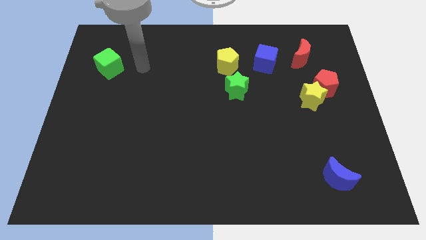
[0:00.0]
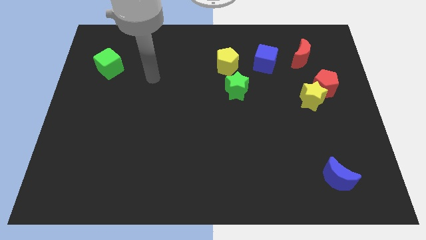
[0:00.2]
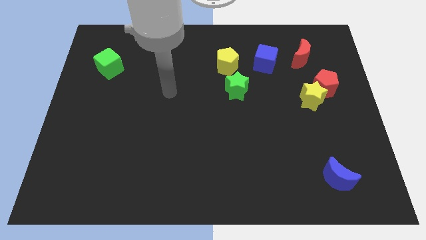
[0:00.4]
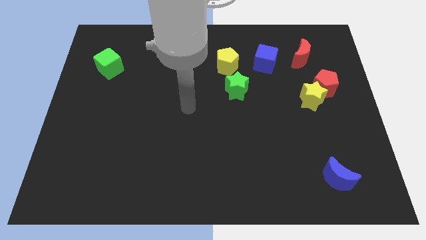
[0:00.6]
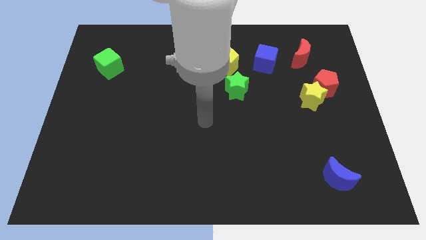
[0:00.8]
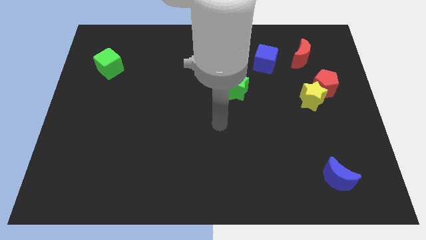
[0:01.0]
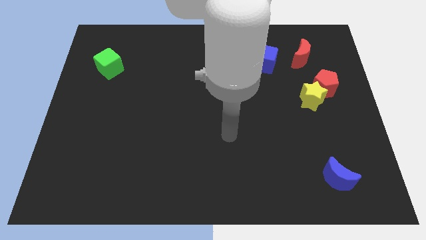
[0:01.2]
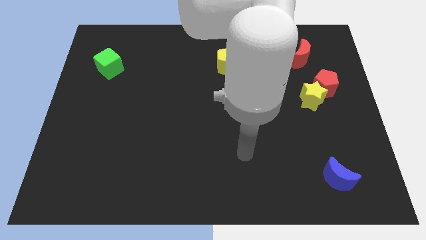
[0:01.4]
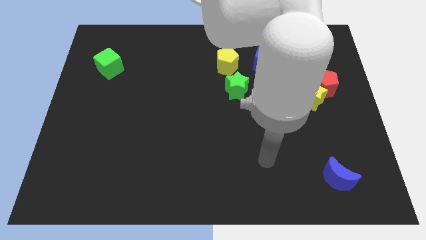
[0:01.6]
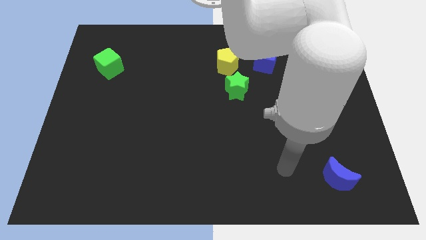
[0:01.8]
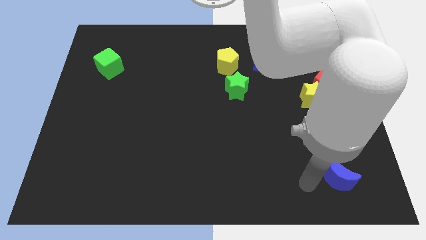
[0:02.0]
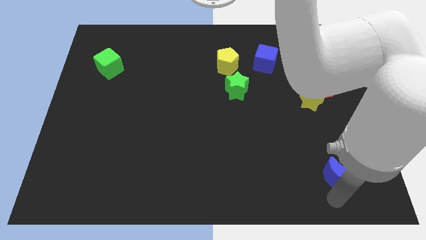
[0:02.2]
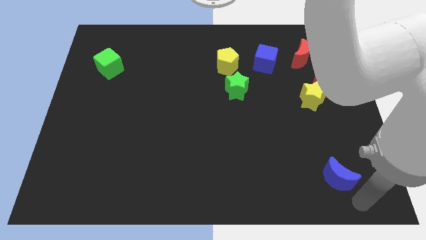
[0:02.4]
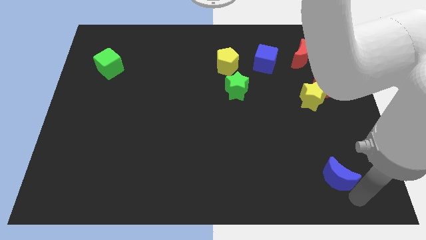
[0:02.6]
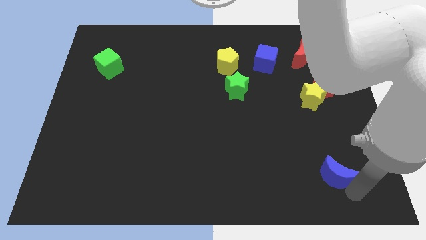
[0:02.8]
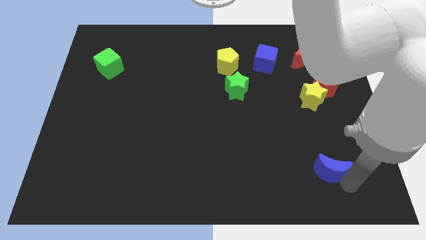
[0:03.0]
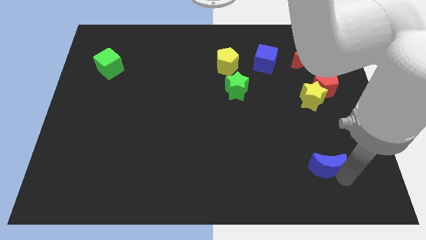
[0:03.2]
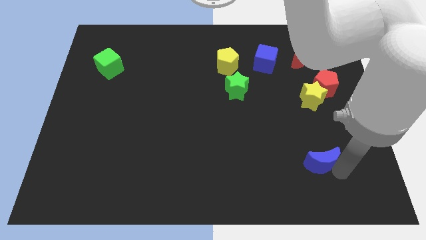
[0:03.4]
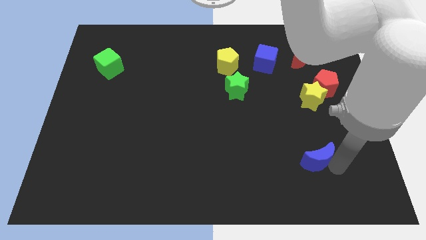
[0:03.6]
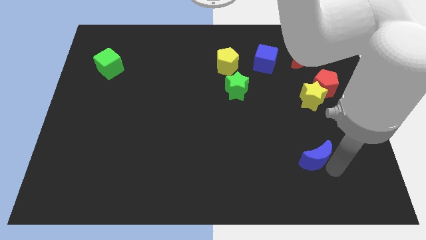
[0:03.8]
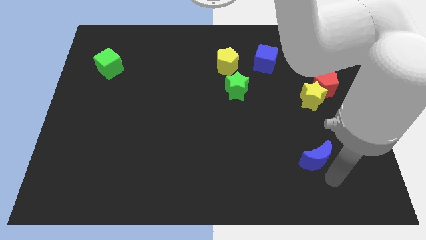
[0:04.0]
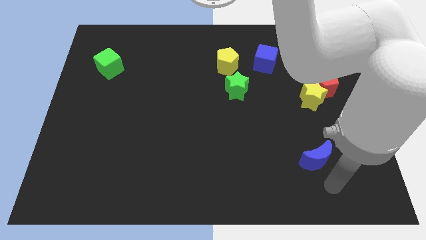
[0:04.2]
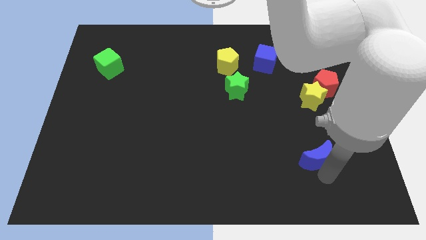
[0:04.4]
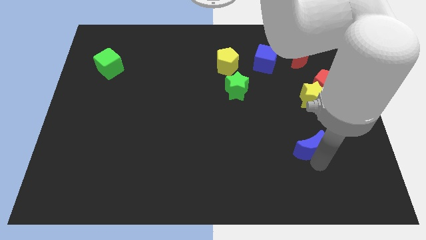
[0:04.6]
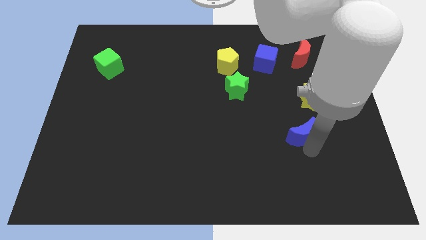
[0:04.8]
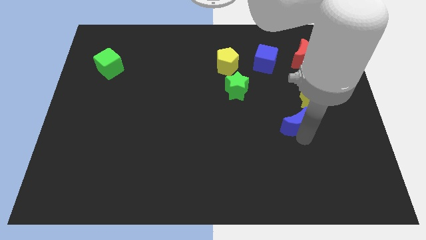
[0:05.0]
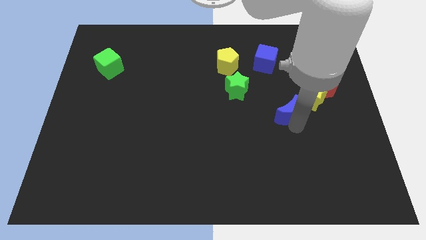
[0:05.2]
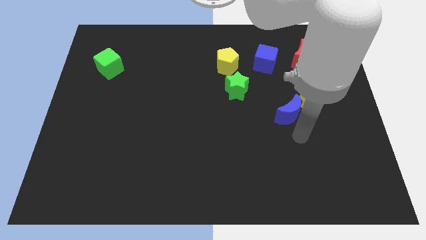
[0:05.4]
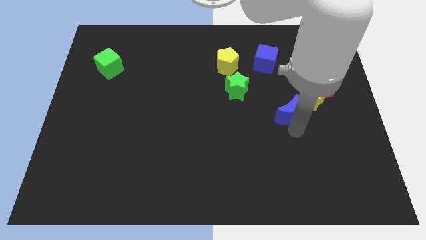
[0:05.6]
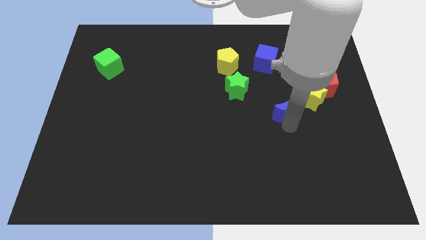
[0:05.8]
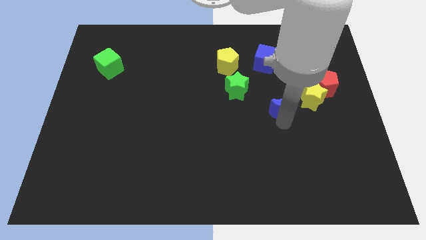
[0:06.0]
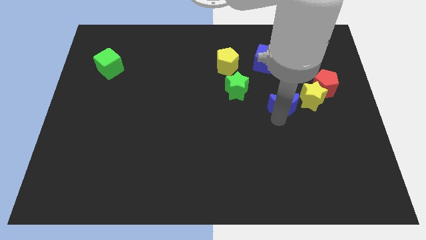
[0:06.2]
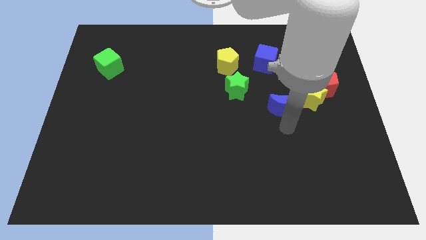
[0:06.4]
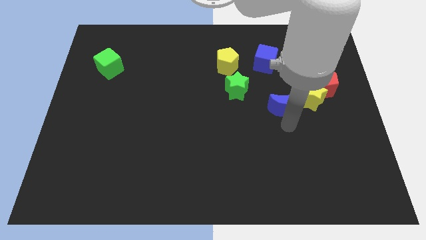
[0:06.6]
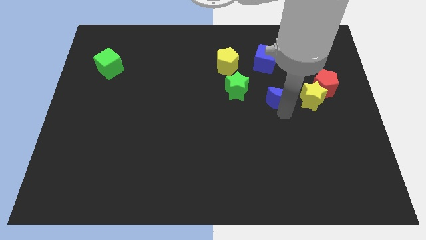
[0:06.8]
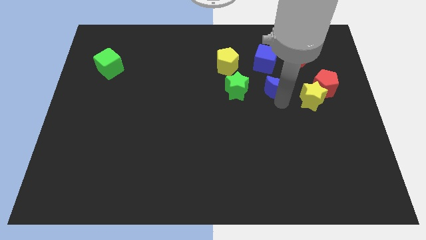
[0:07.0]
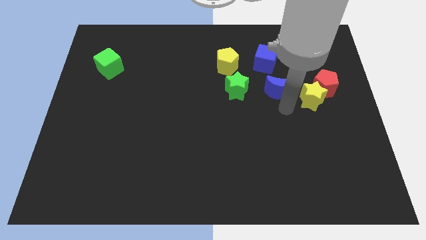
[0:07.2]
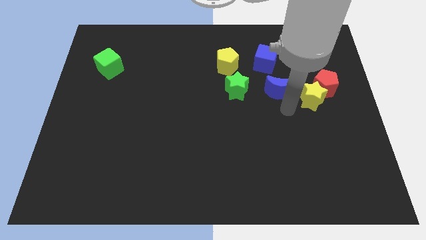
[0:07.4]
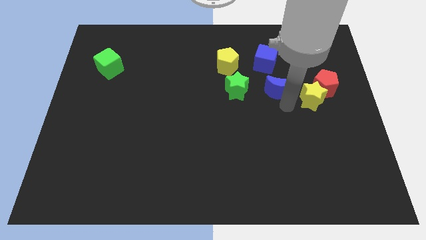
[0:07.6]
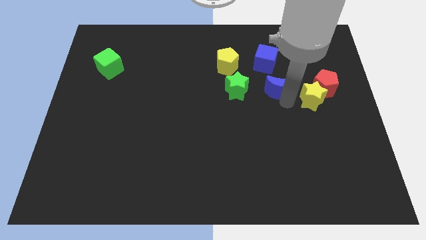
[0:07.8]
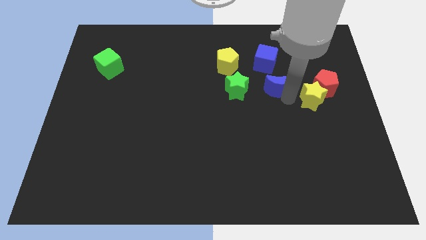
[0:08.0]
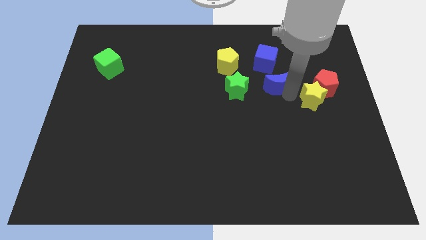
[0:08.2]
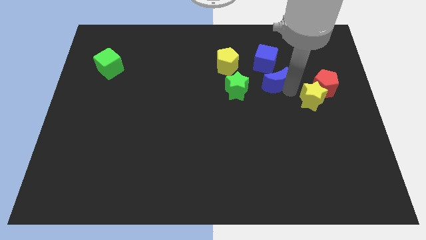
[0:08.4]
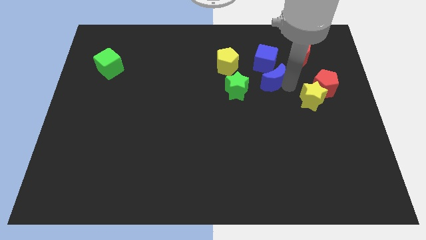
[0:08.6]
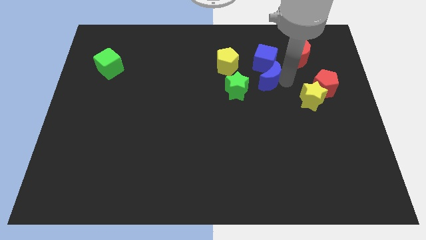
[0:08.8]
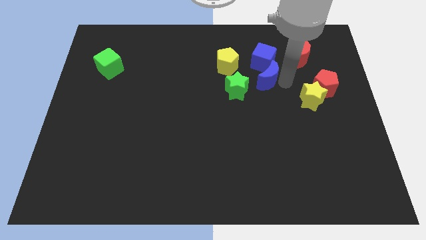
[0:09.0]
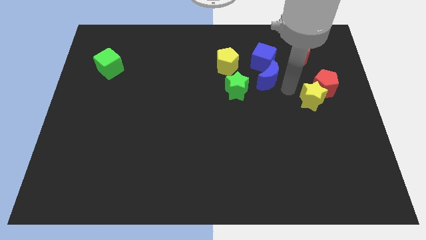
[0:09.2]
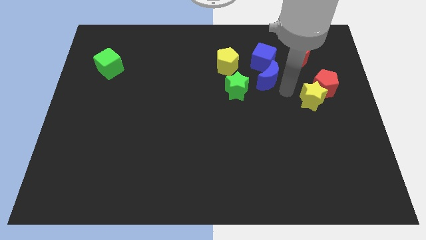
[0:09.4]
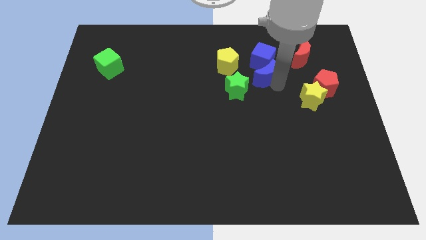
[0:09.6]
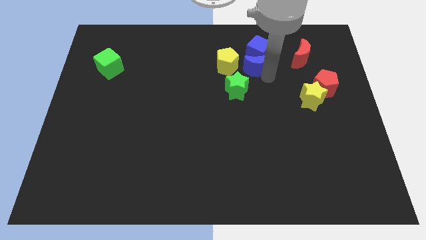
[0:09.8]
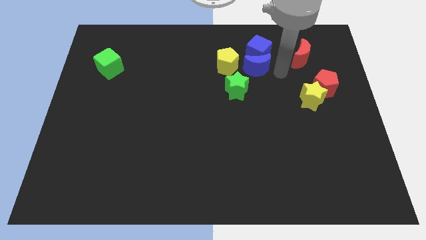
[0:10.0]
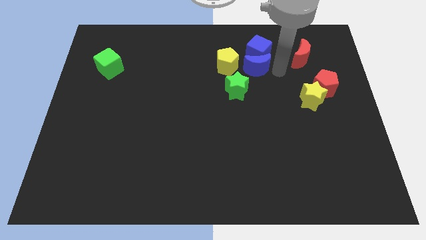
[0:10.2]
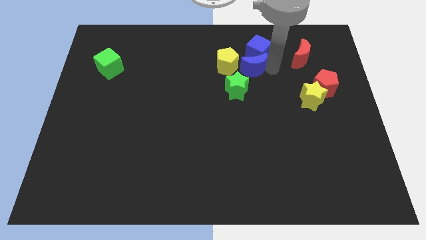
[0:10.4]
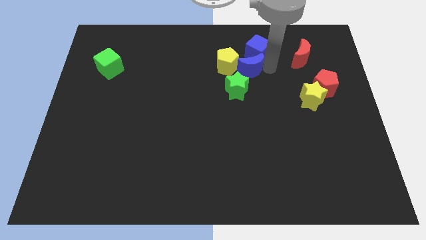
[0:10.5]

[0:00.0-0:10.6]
slide the blue moon close to the yellow pentagon

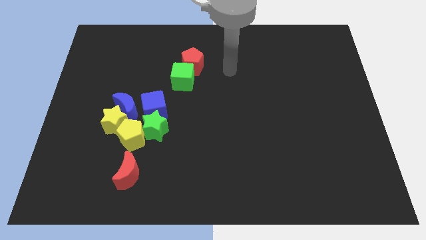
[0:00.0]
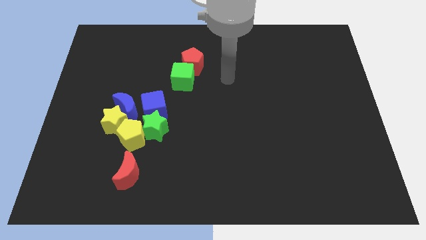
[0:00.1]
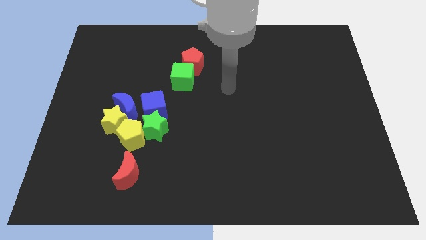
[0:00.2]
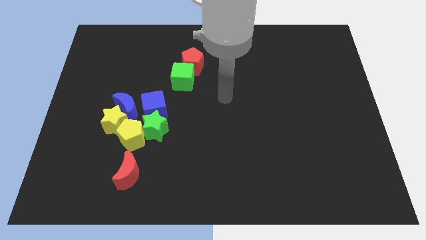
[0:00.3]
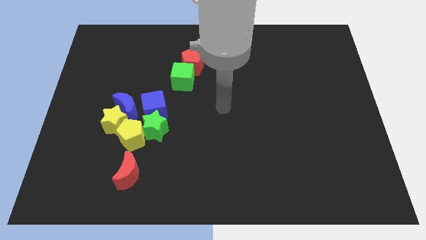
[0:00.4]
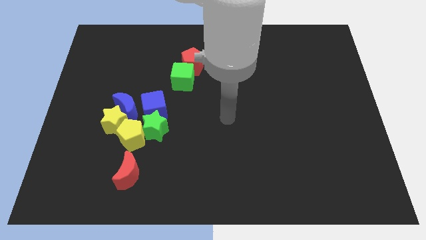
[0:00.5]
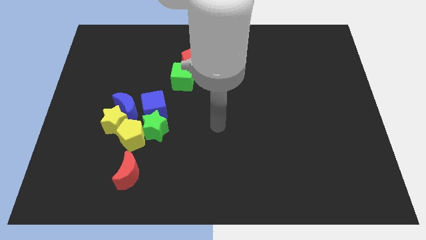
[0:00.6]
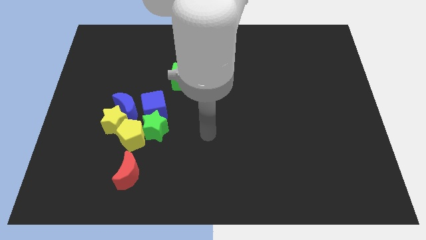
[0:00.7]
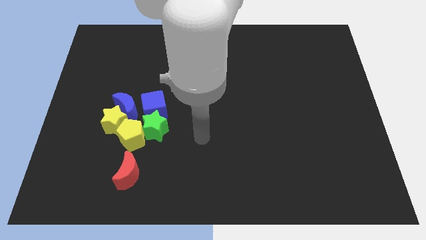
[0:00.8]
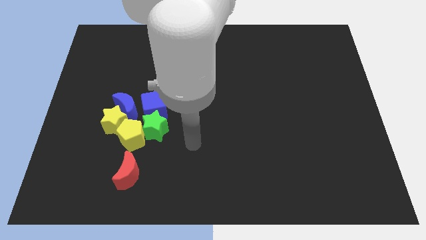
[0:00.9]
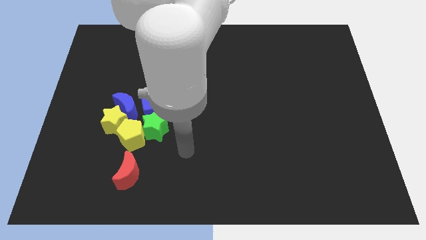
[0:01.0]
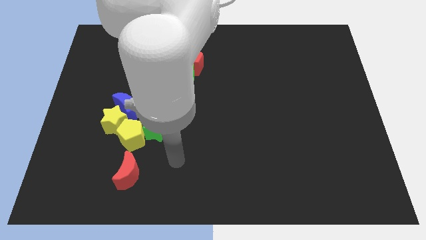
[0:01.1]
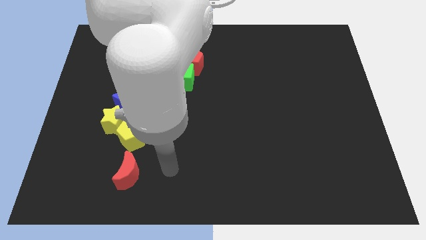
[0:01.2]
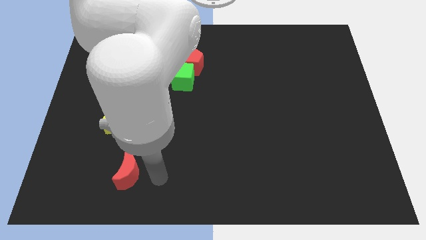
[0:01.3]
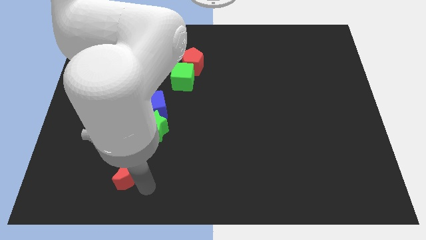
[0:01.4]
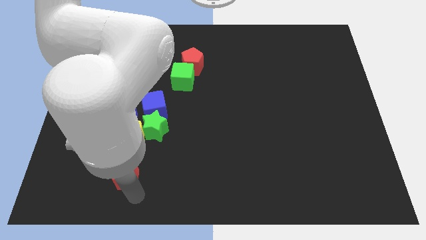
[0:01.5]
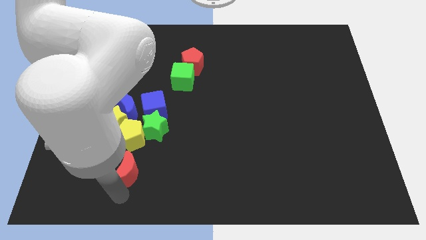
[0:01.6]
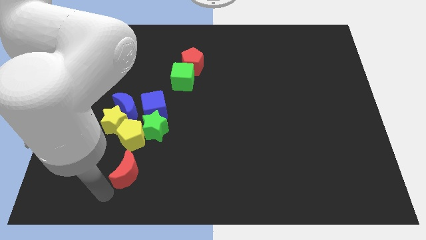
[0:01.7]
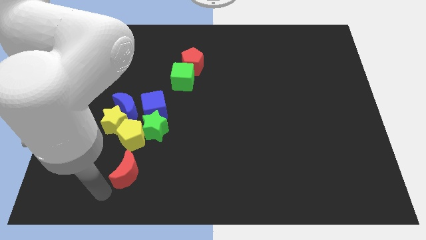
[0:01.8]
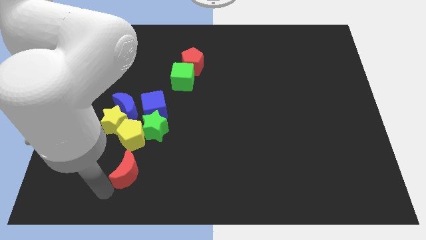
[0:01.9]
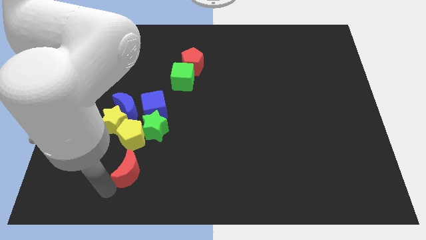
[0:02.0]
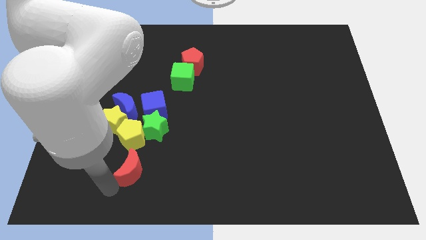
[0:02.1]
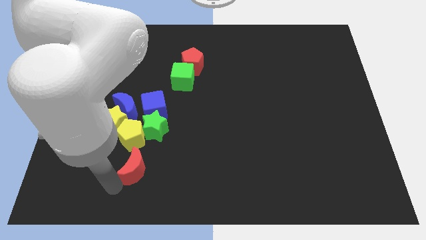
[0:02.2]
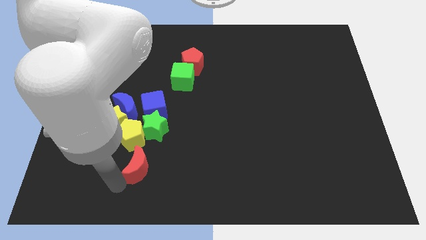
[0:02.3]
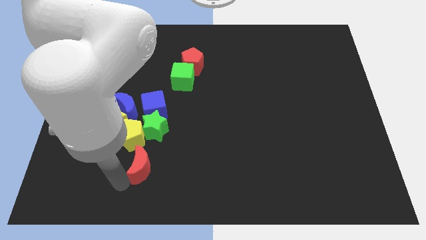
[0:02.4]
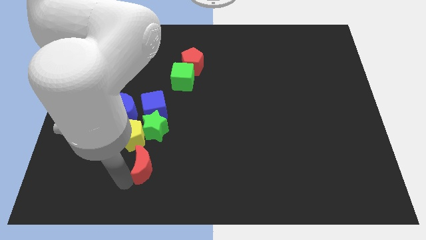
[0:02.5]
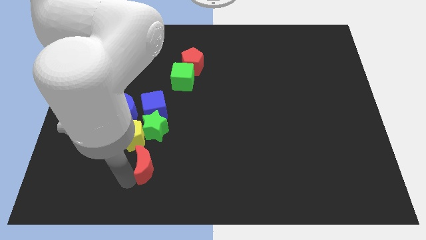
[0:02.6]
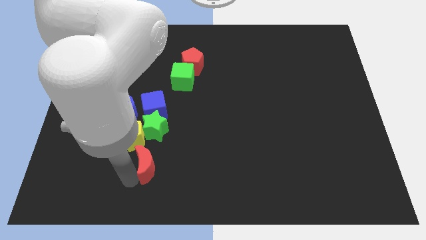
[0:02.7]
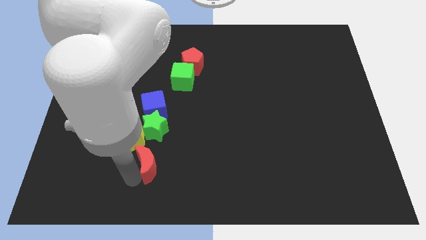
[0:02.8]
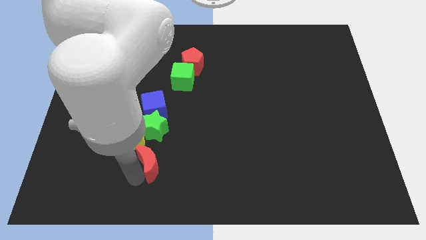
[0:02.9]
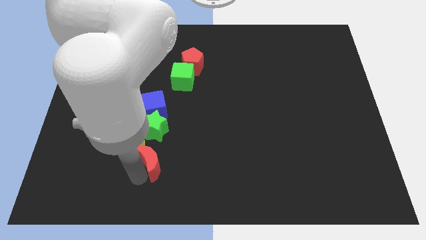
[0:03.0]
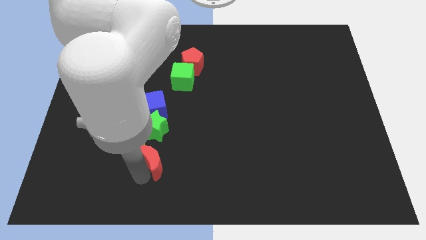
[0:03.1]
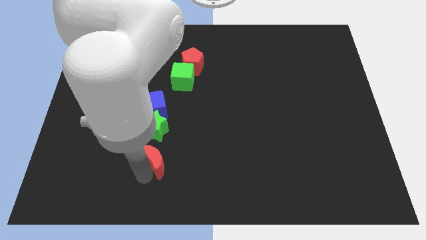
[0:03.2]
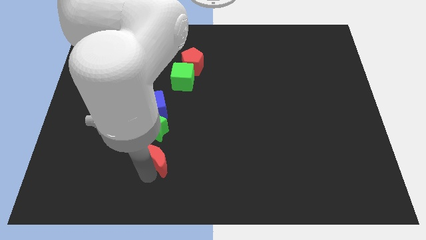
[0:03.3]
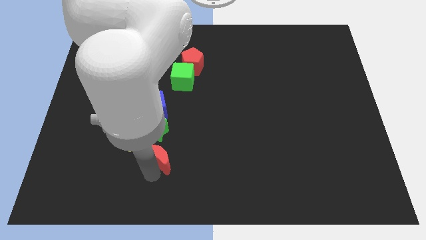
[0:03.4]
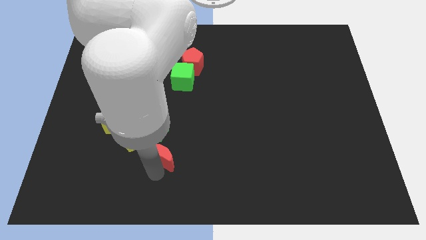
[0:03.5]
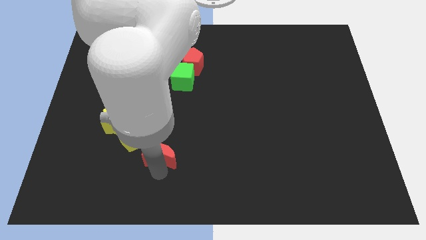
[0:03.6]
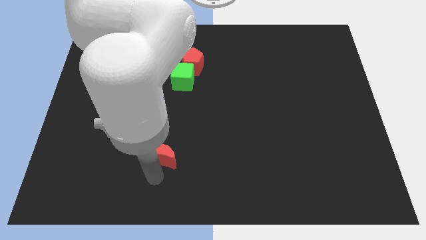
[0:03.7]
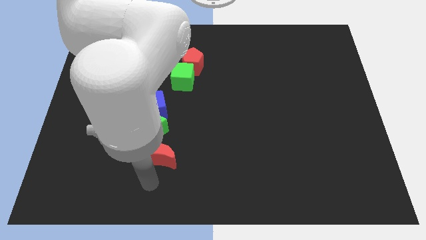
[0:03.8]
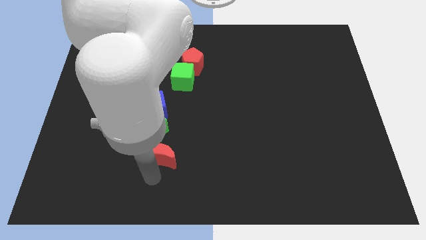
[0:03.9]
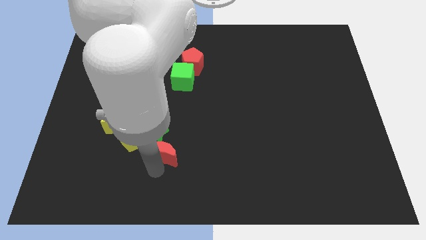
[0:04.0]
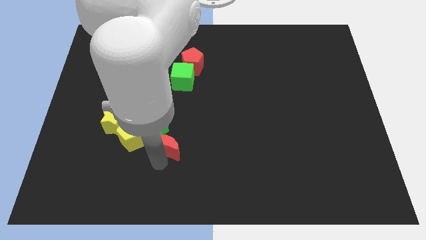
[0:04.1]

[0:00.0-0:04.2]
push the red moon towards the green star
